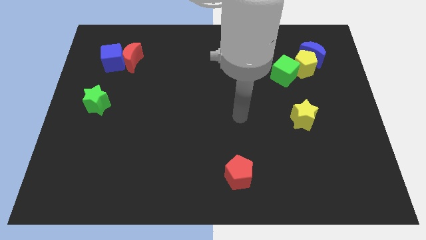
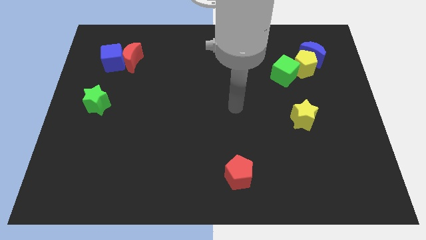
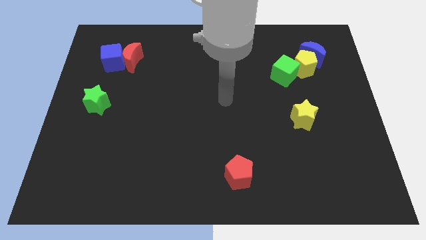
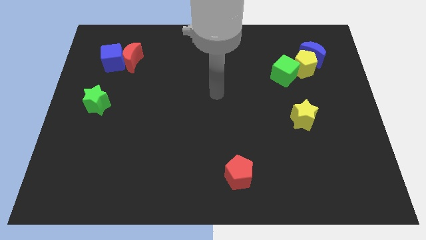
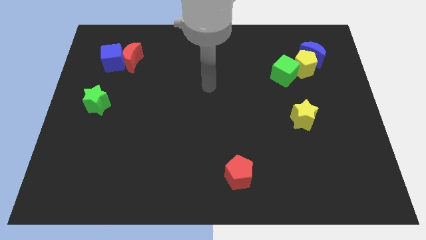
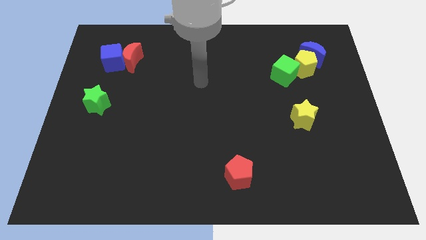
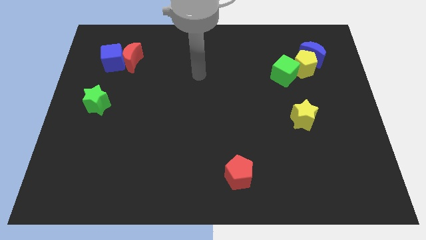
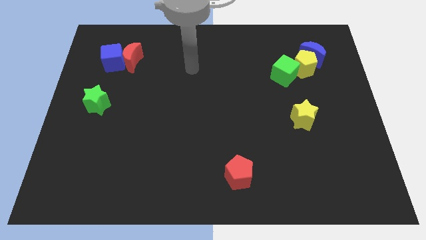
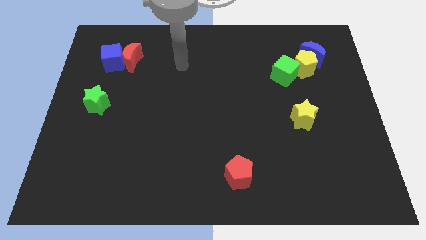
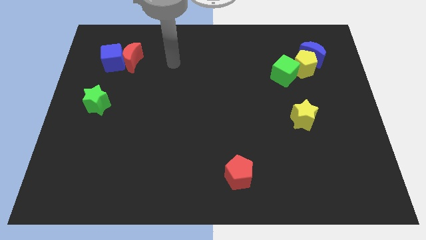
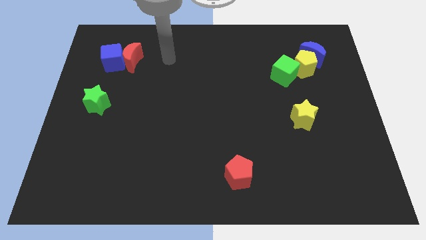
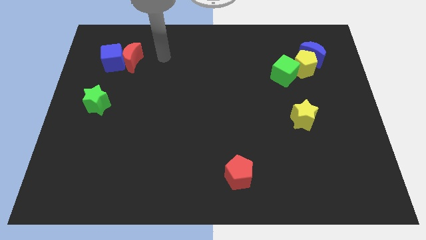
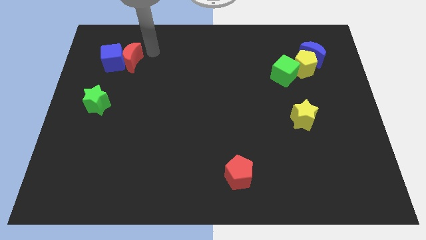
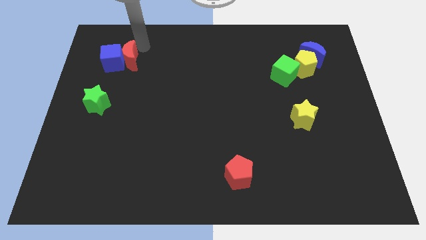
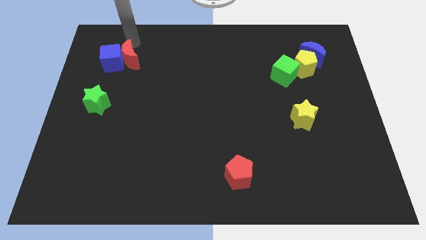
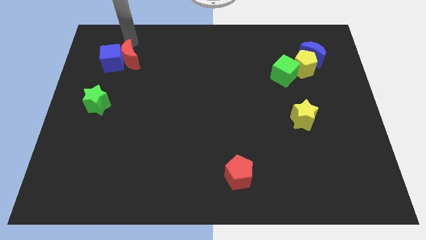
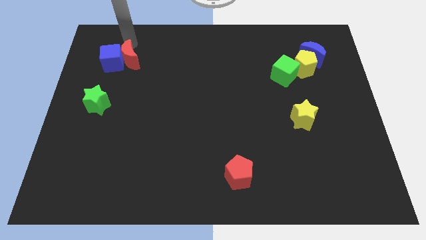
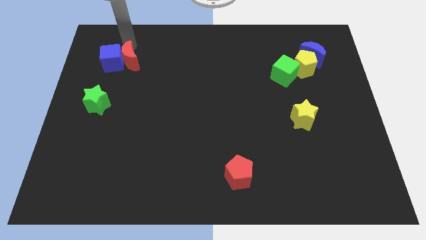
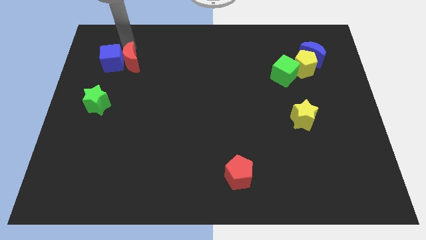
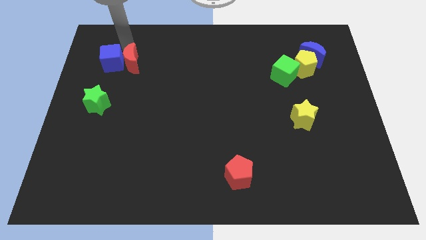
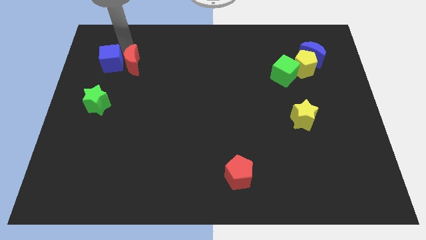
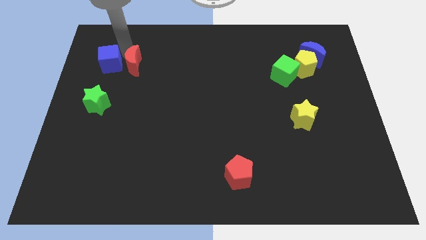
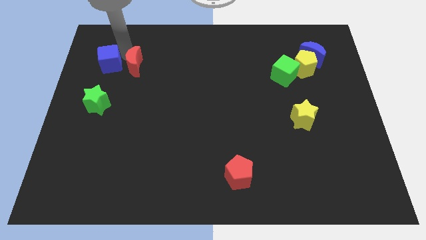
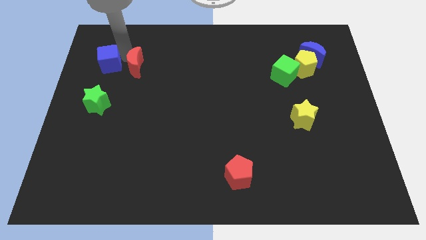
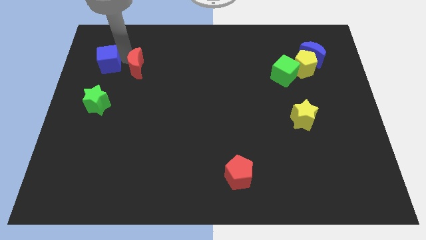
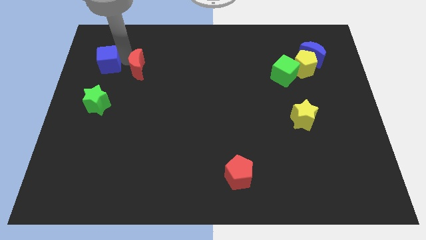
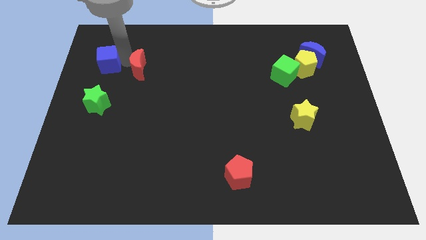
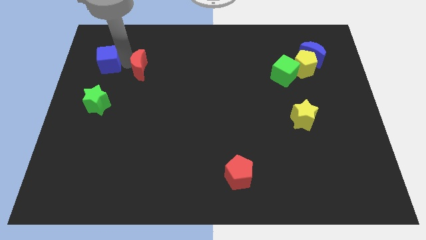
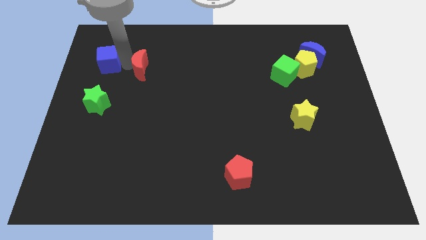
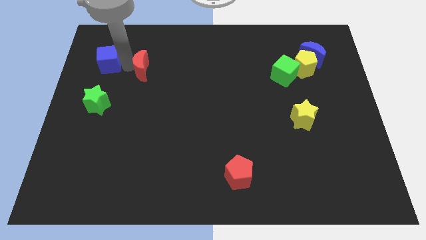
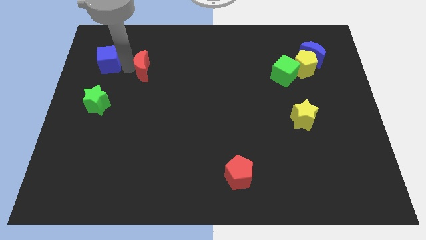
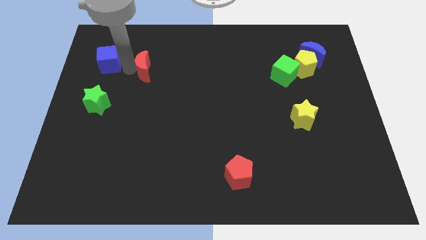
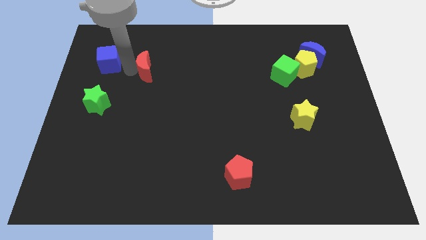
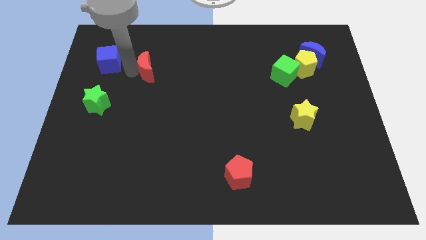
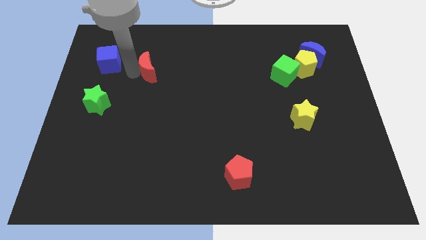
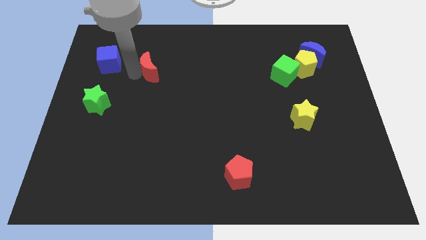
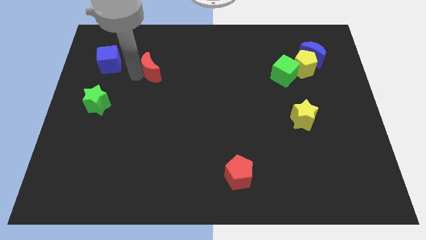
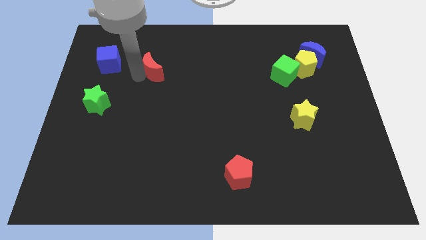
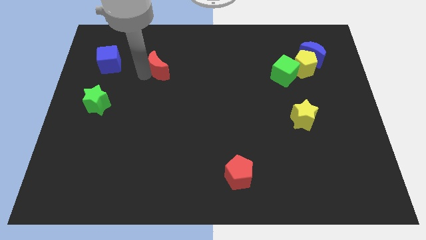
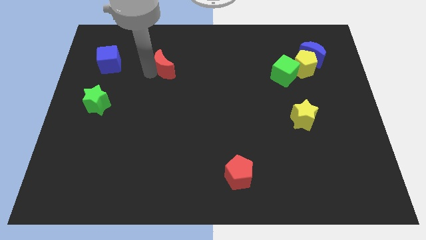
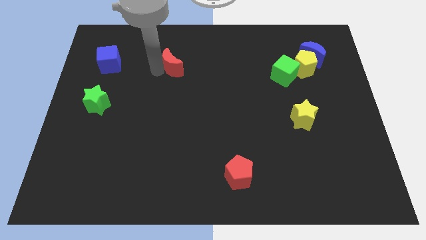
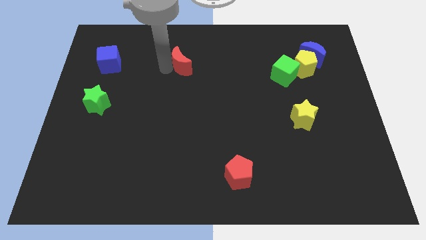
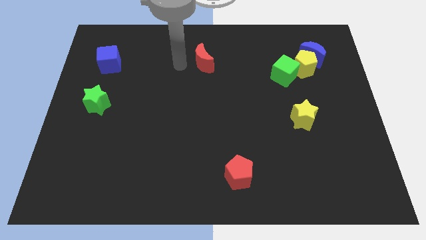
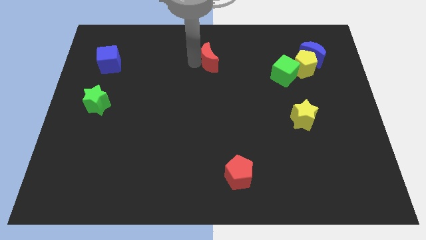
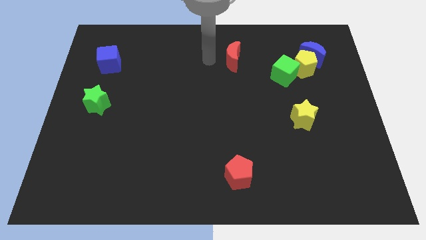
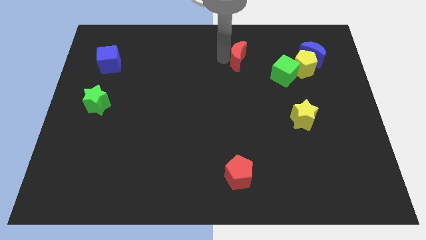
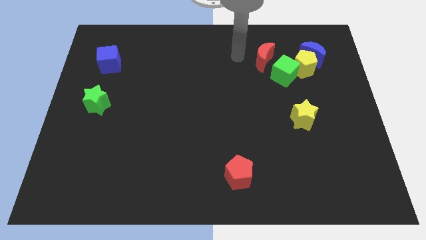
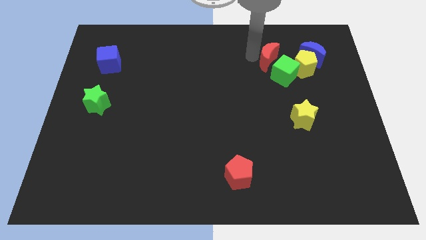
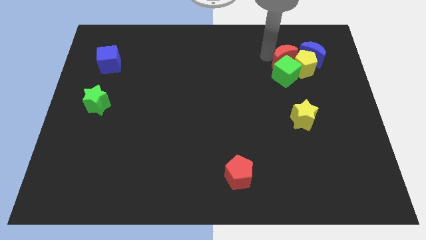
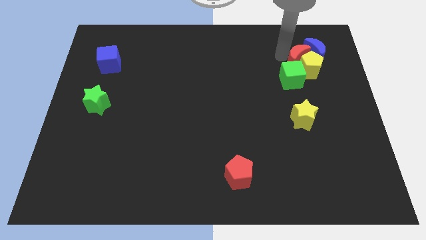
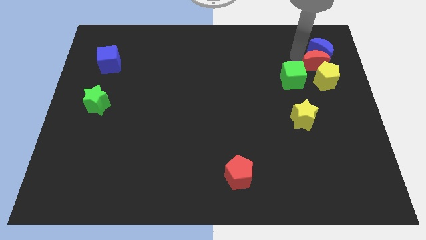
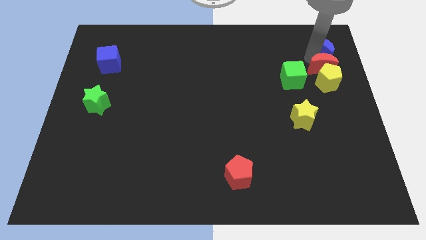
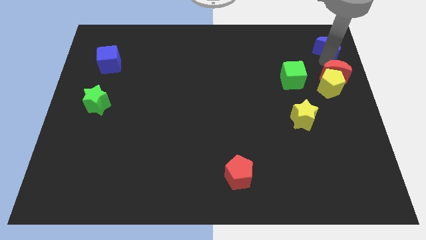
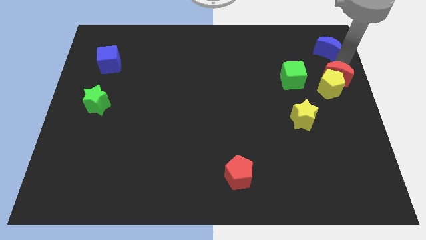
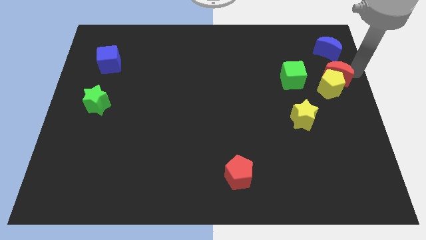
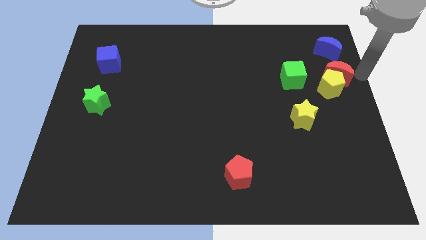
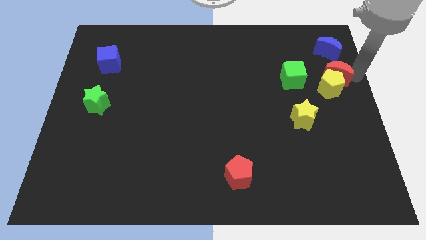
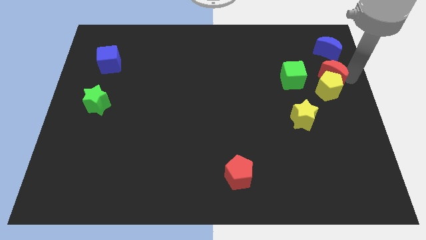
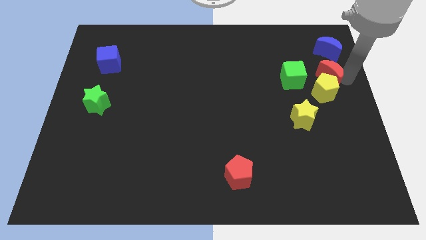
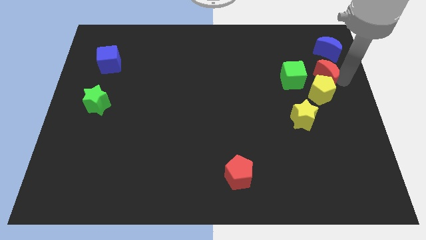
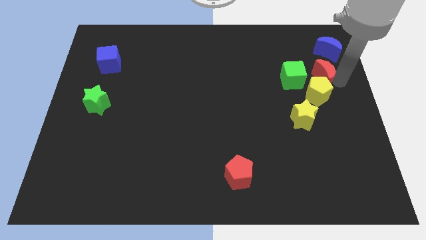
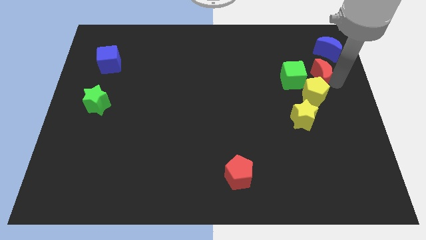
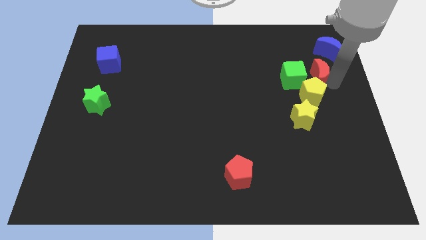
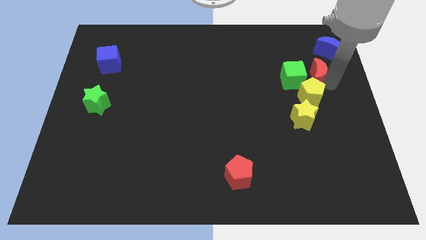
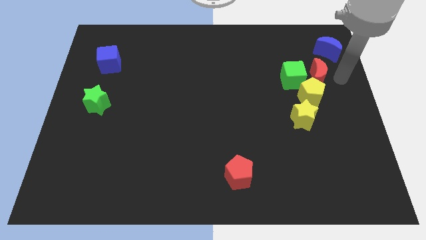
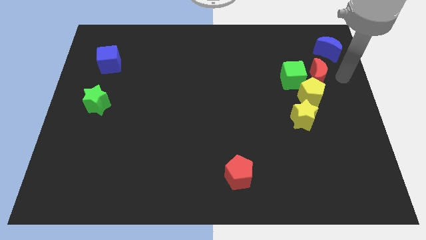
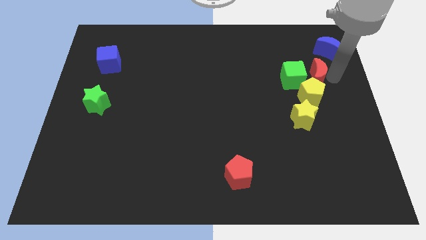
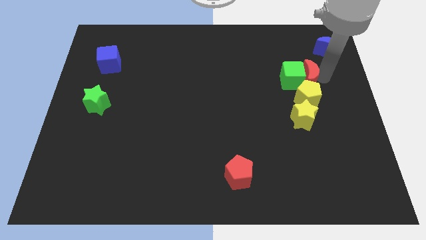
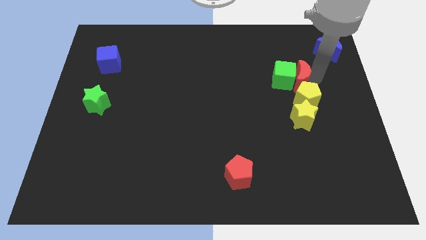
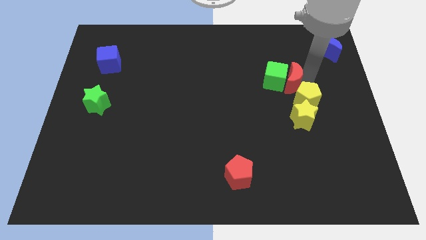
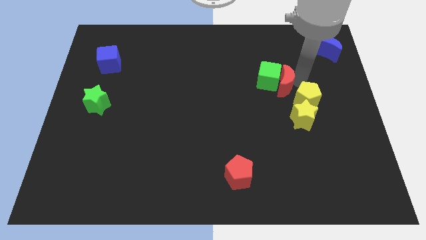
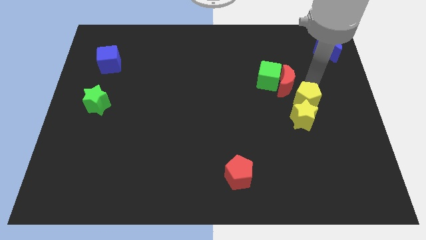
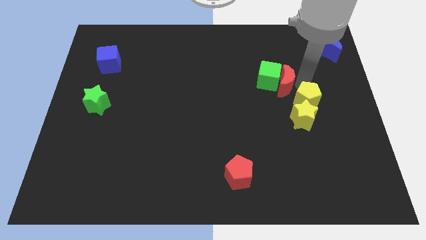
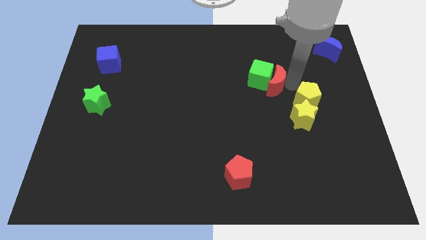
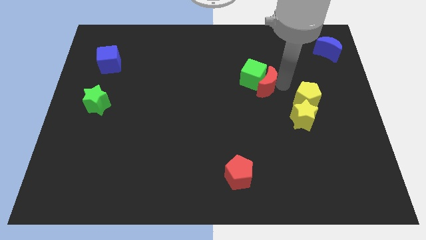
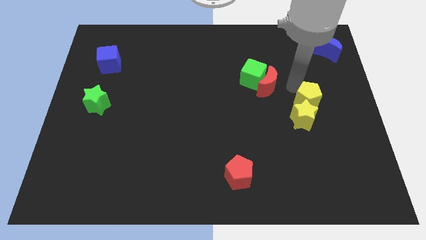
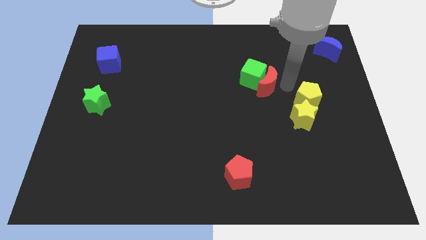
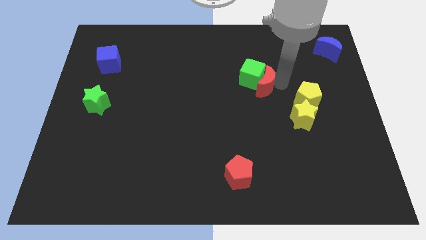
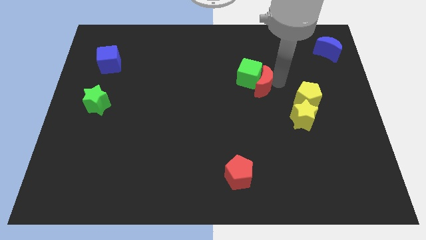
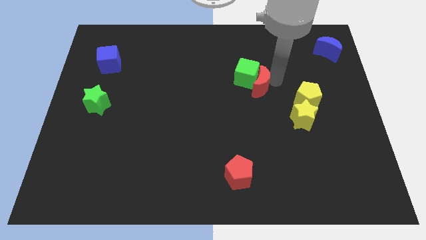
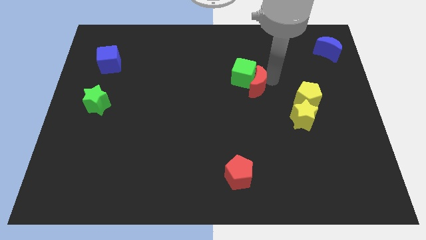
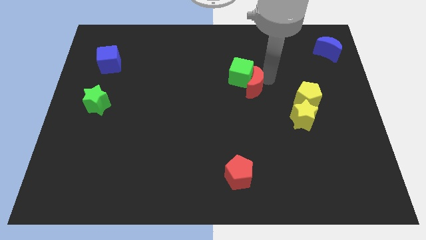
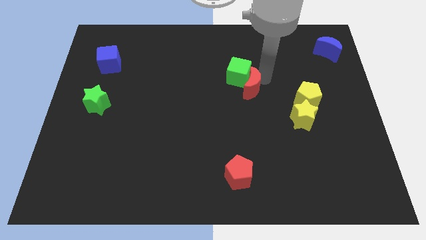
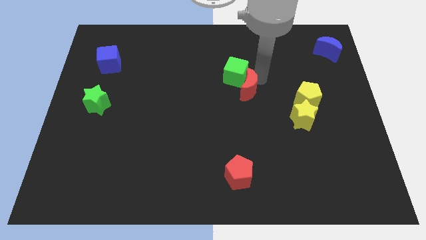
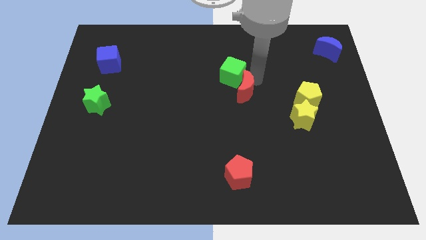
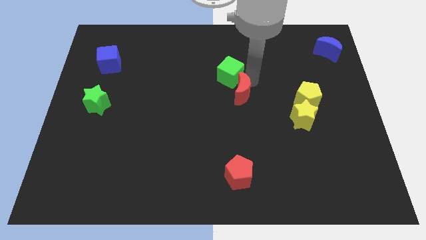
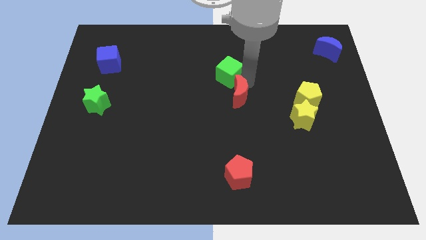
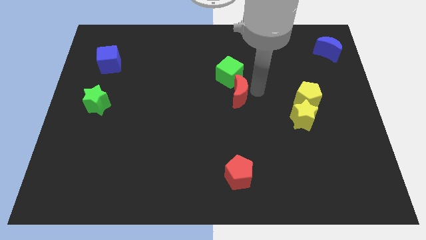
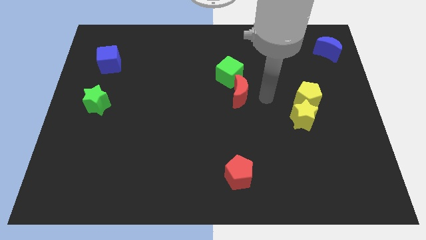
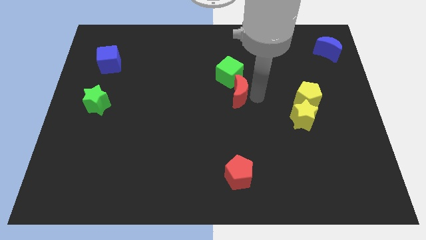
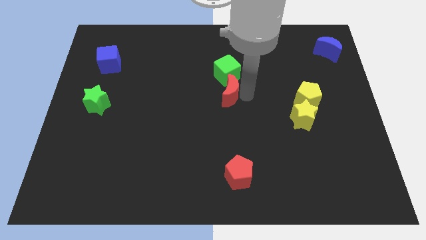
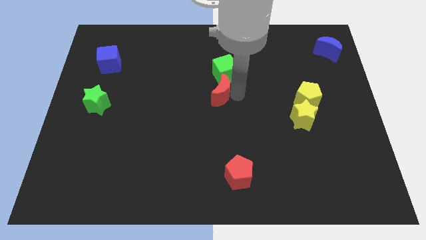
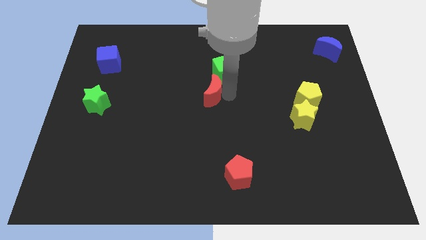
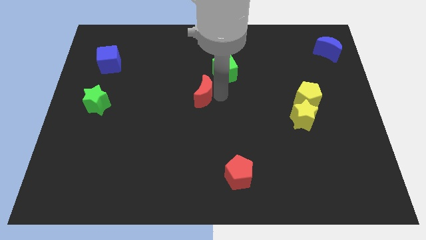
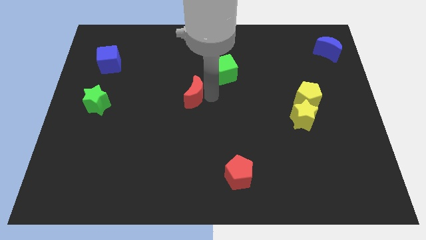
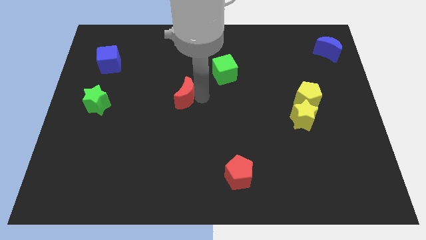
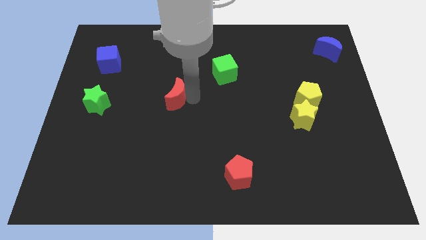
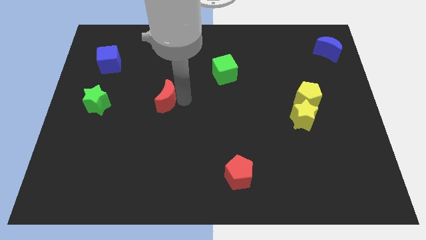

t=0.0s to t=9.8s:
slightly move the red moon downwards
